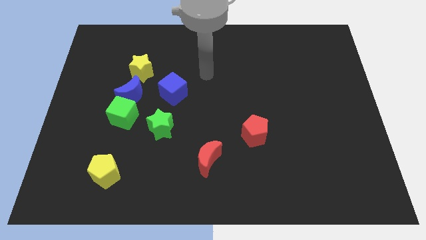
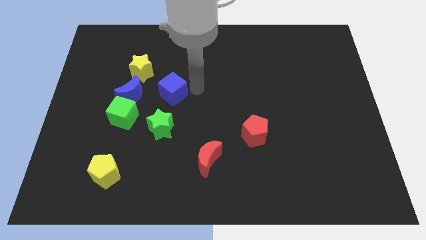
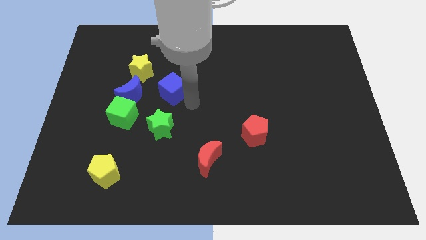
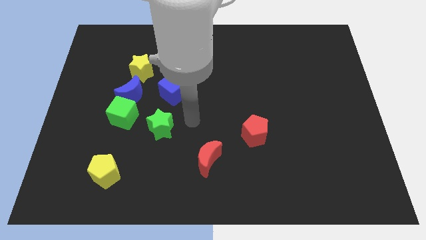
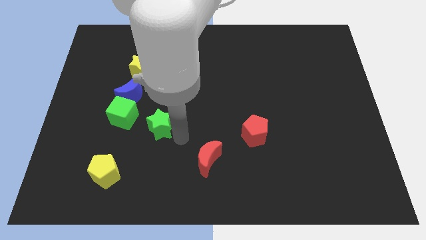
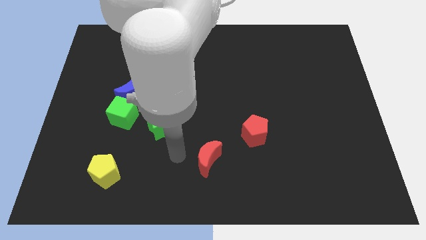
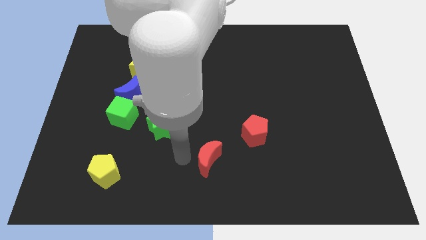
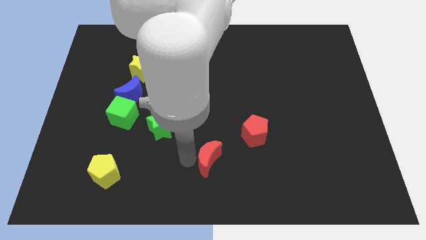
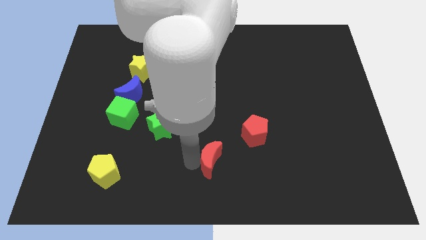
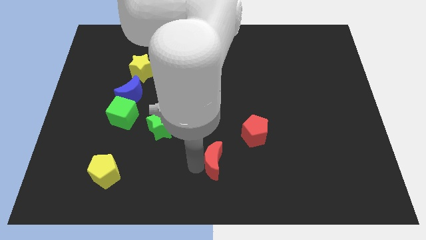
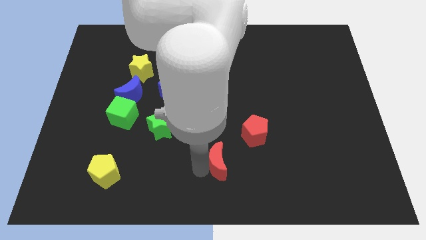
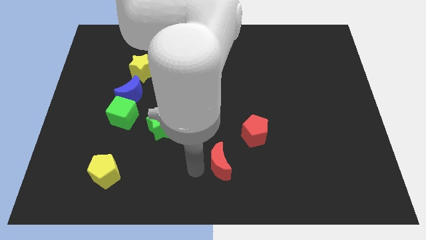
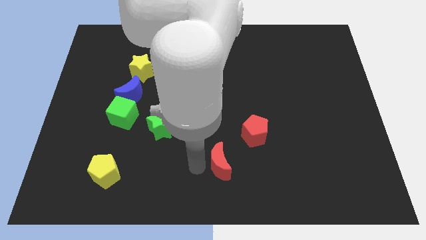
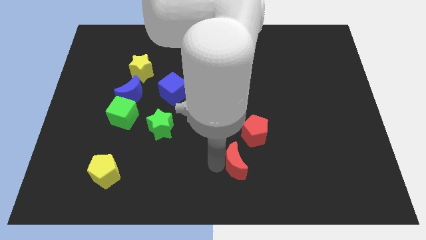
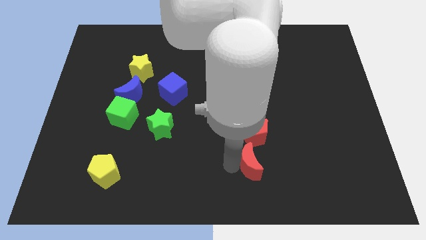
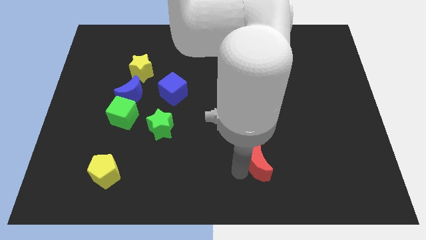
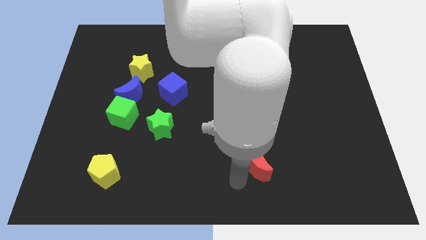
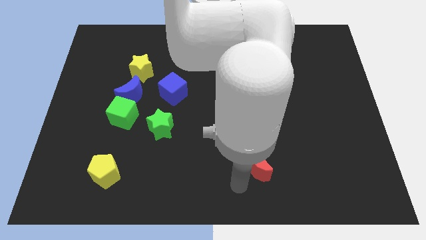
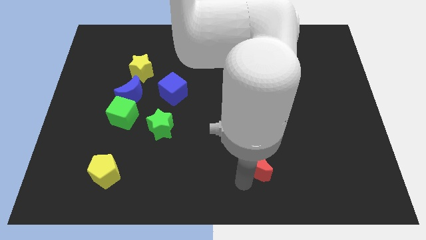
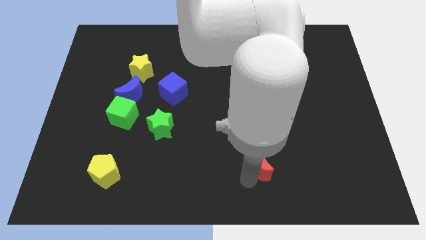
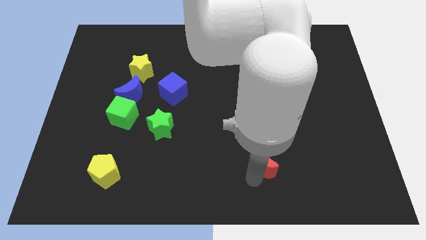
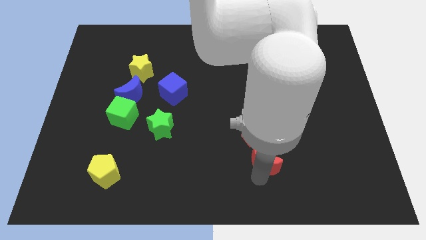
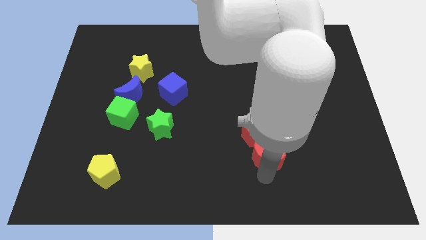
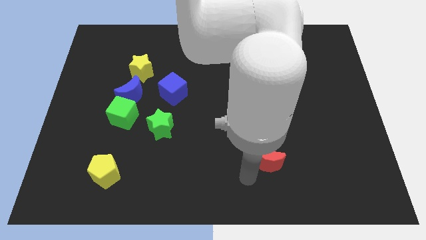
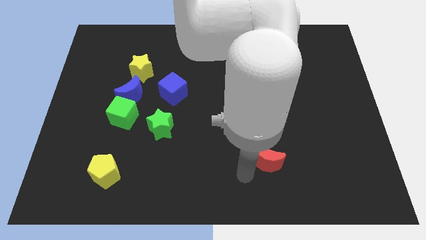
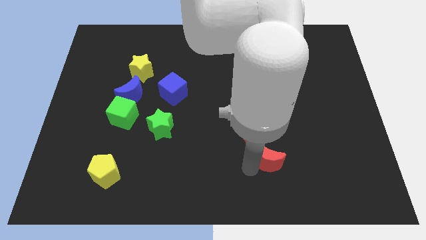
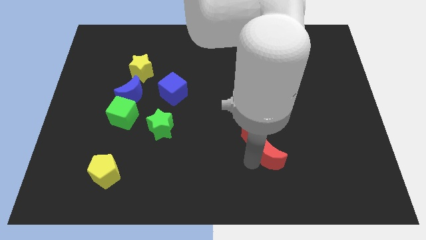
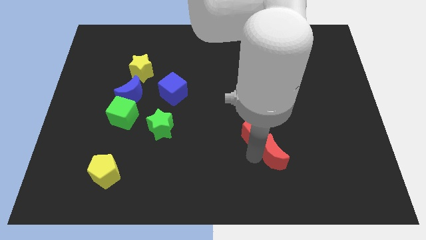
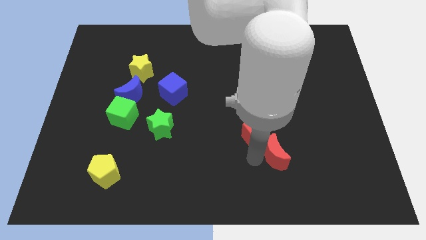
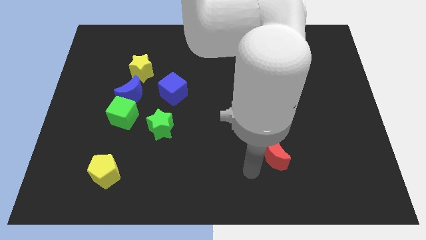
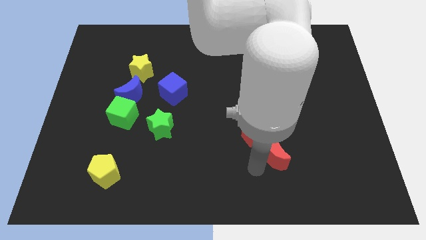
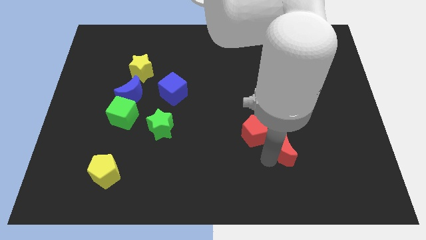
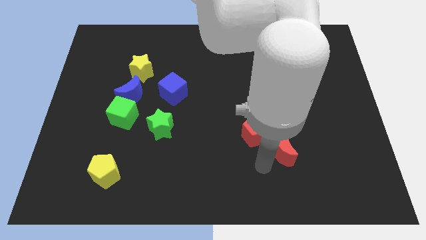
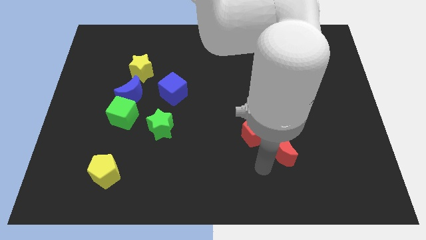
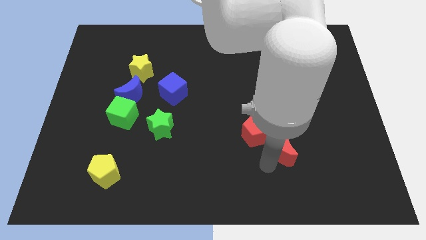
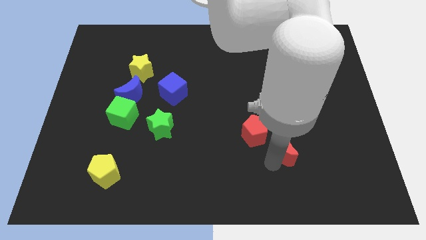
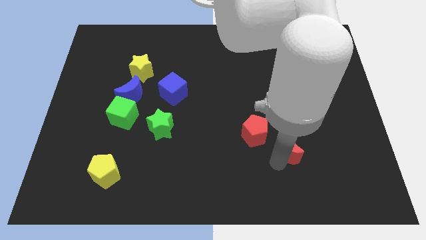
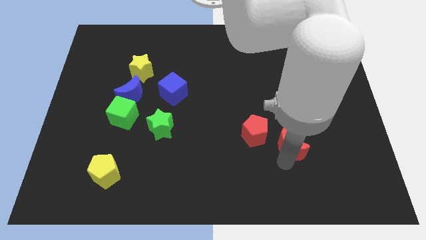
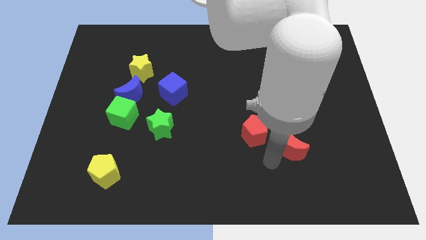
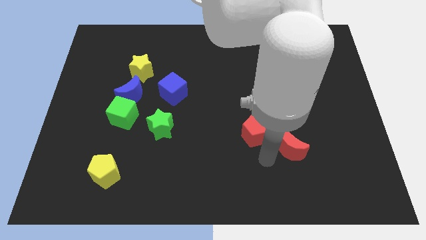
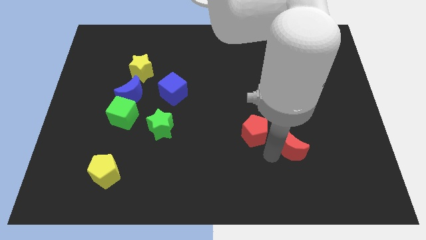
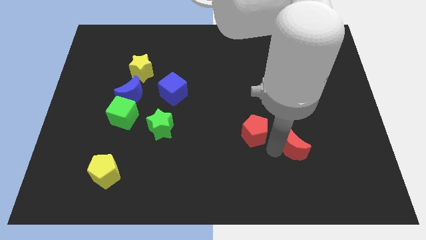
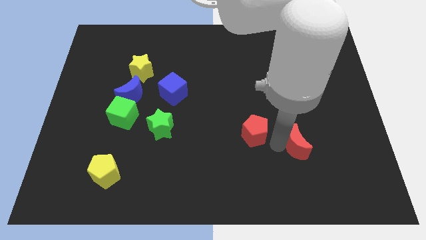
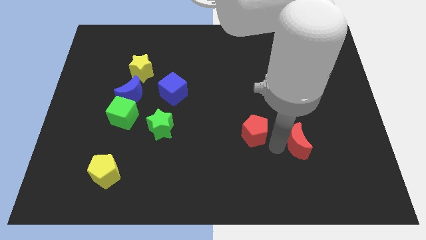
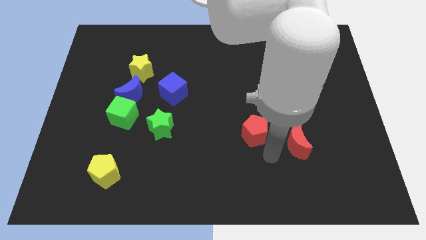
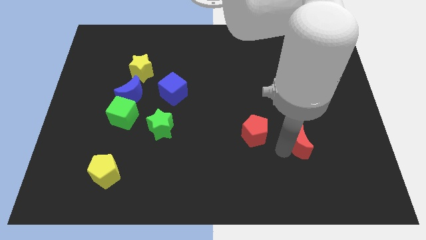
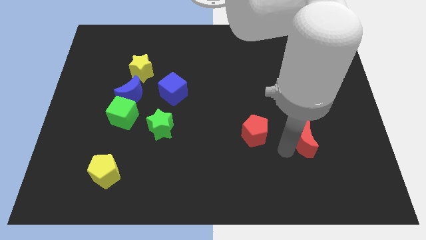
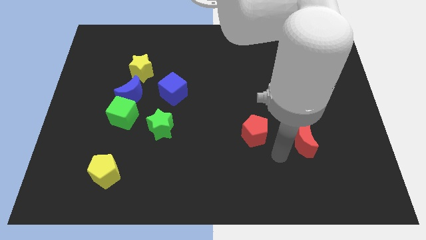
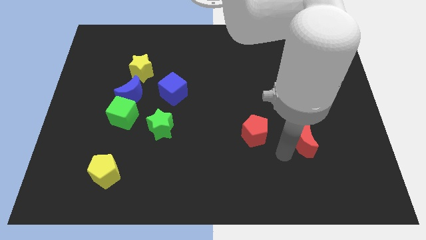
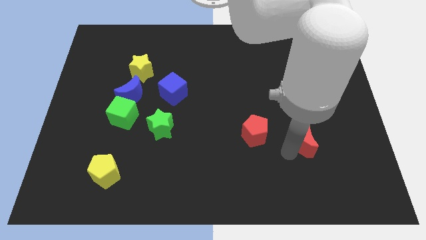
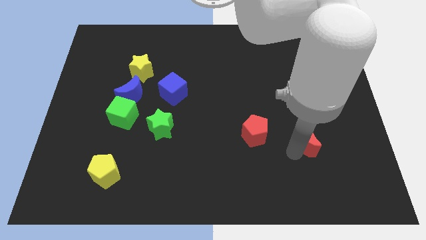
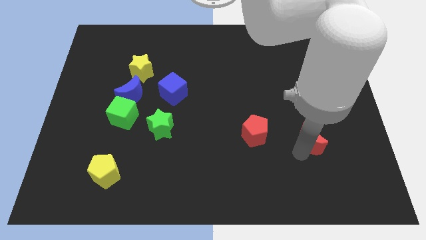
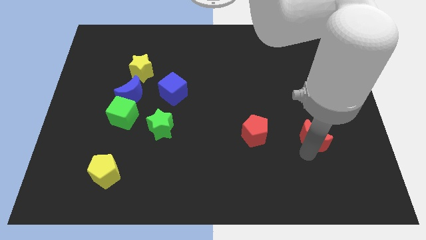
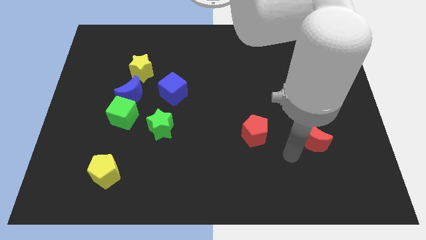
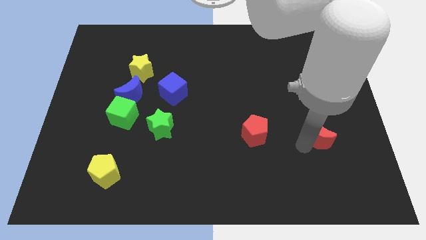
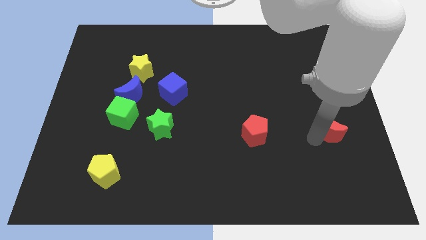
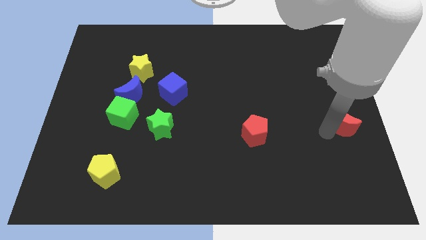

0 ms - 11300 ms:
push the red moon to the right side of the board

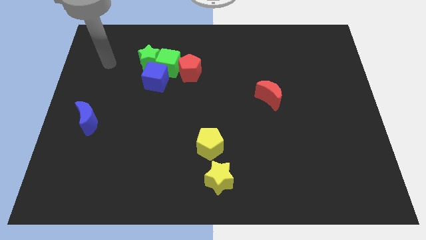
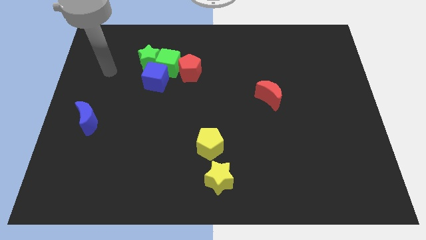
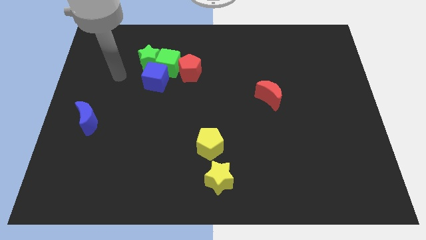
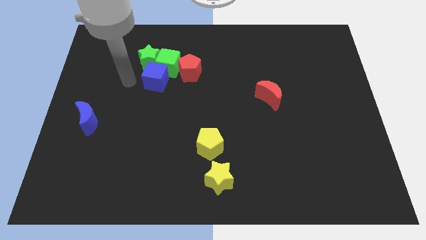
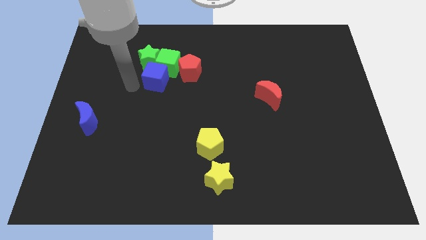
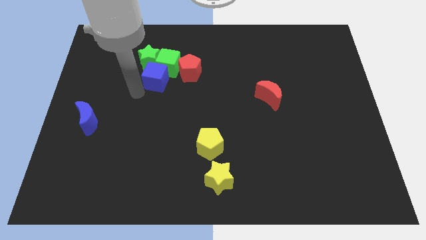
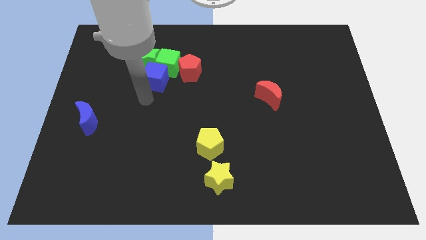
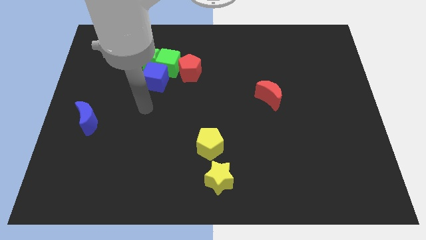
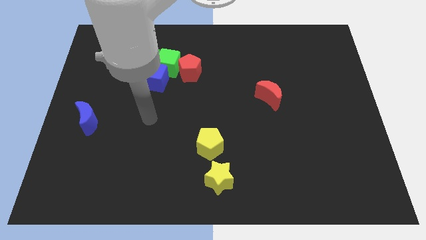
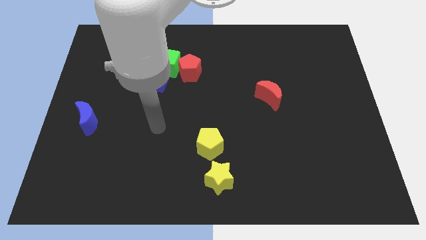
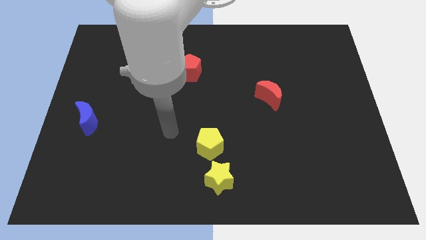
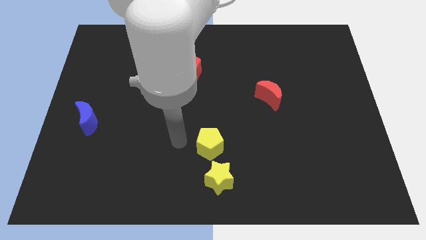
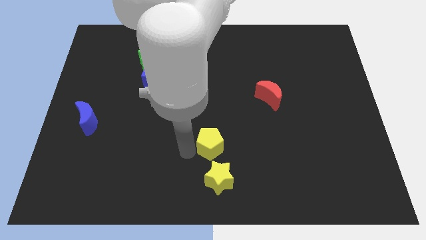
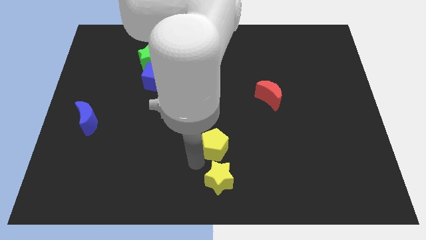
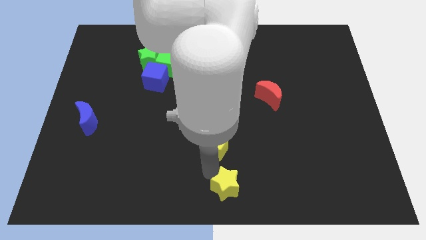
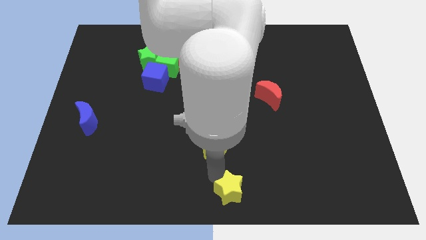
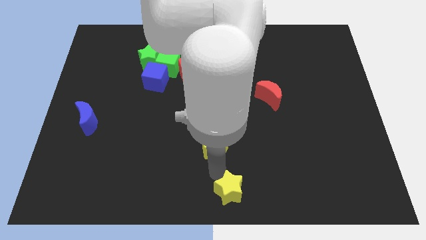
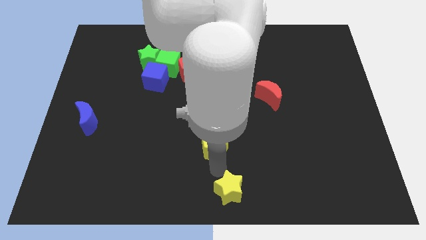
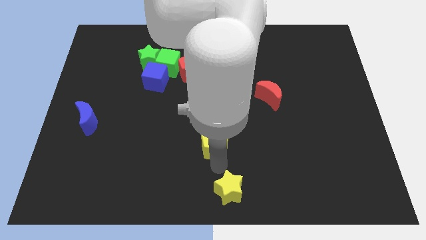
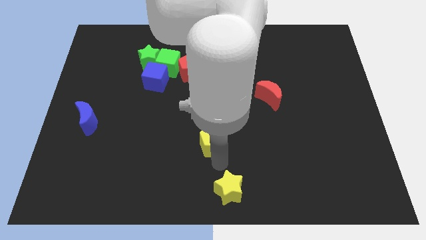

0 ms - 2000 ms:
put the yellow pentagon to the middle of the board
